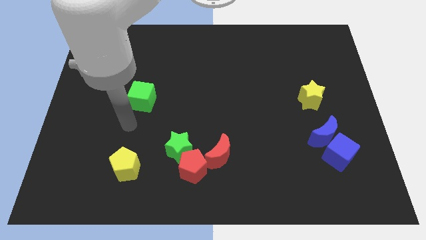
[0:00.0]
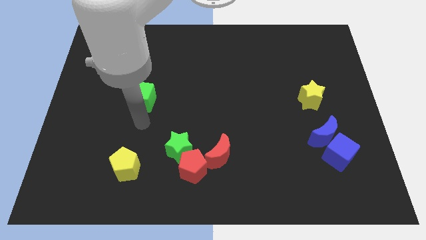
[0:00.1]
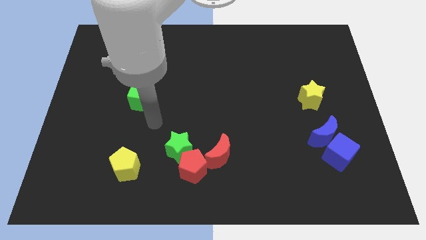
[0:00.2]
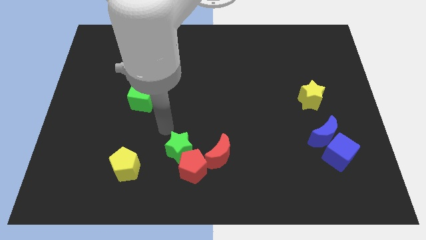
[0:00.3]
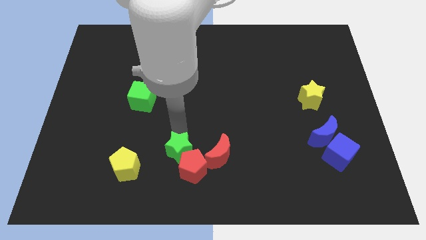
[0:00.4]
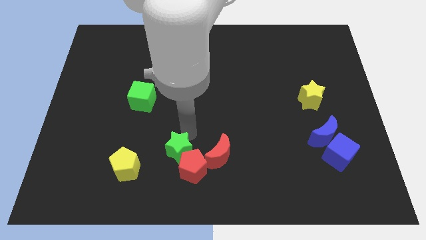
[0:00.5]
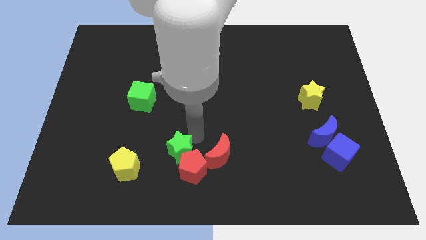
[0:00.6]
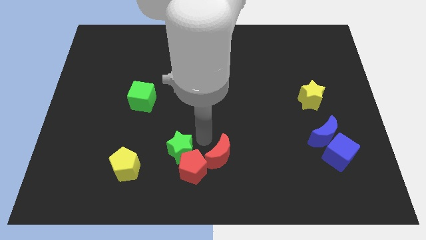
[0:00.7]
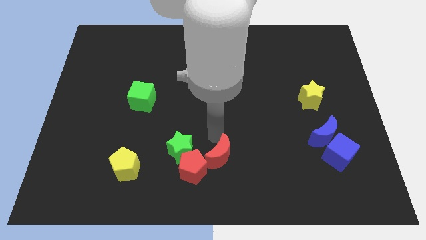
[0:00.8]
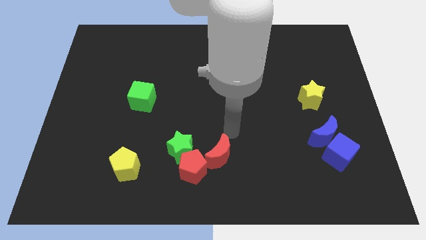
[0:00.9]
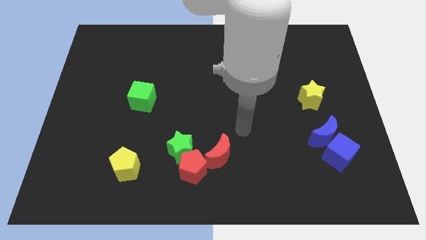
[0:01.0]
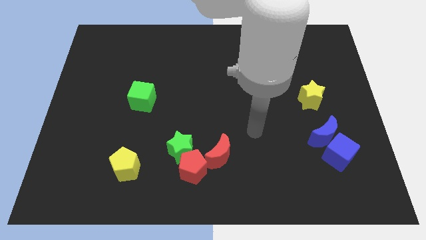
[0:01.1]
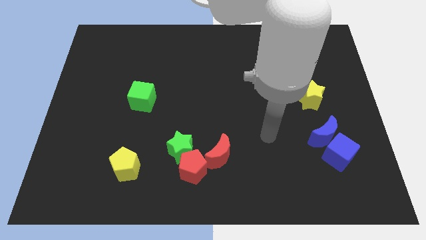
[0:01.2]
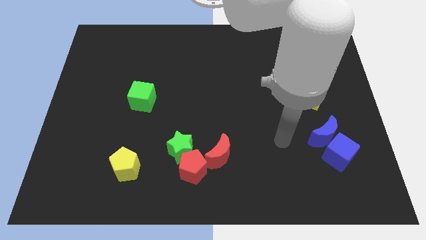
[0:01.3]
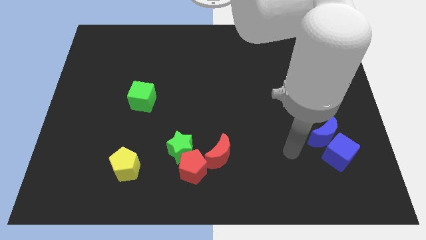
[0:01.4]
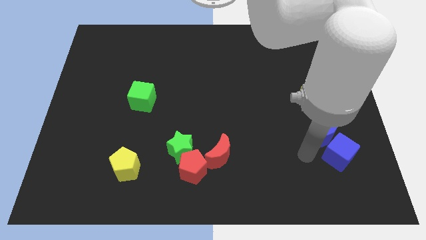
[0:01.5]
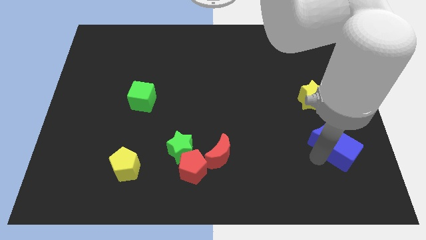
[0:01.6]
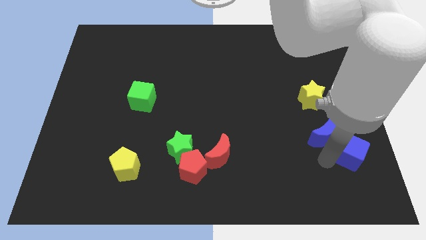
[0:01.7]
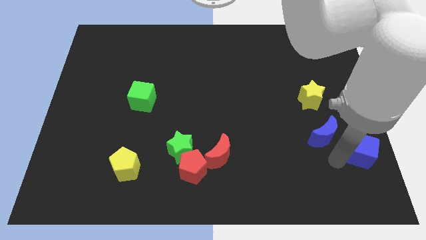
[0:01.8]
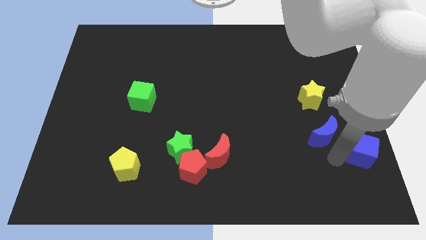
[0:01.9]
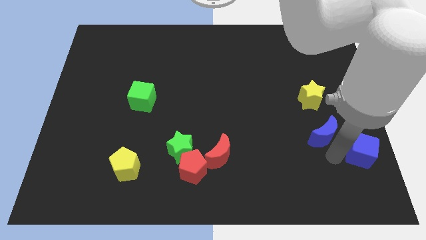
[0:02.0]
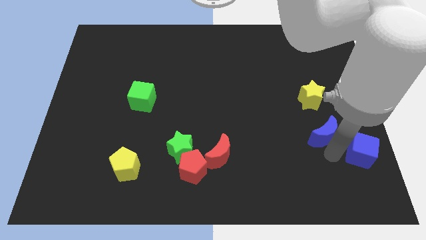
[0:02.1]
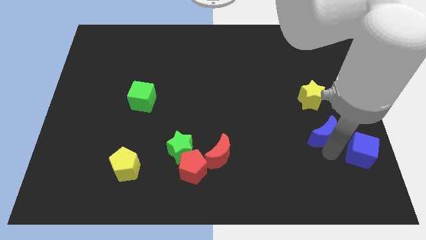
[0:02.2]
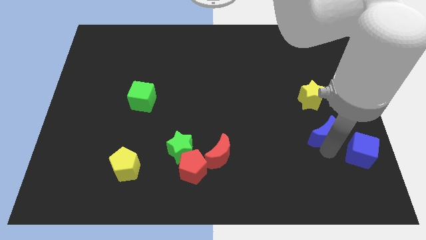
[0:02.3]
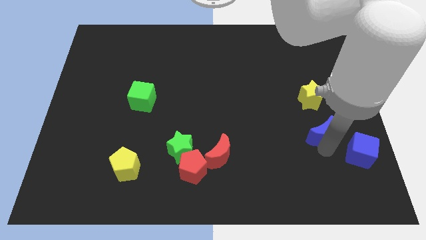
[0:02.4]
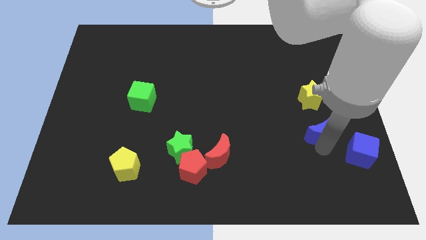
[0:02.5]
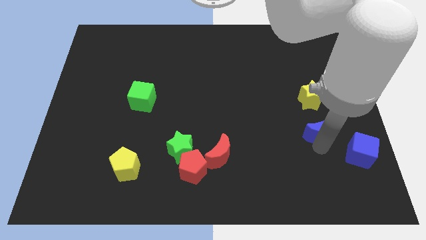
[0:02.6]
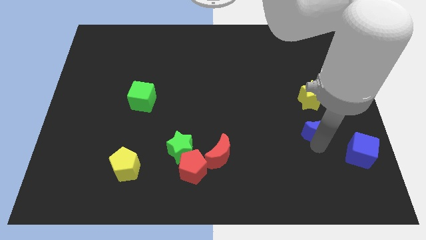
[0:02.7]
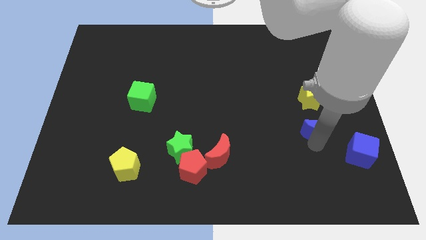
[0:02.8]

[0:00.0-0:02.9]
move the blue moon away from the blue cube

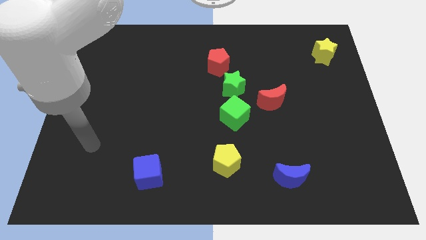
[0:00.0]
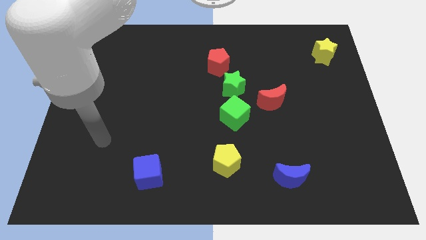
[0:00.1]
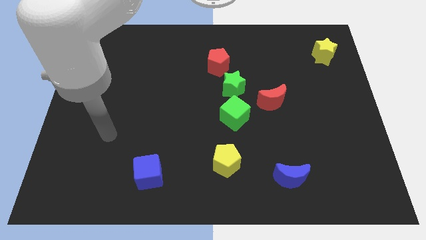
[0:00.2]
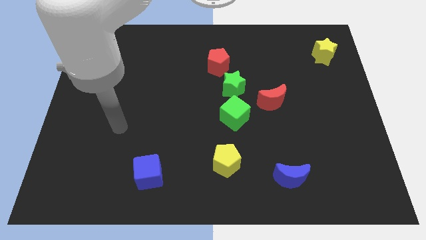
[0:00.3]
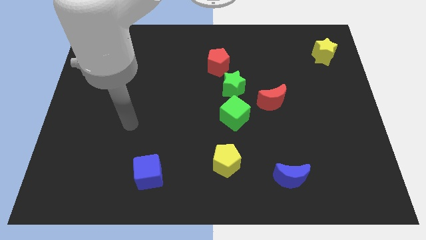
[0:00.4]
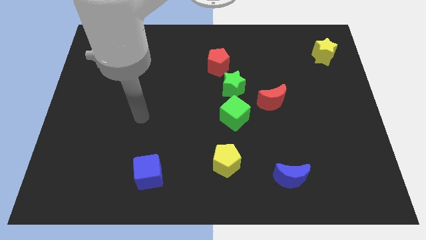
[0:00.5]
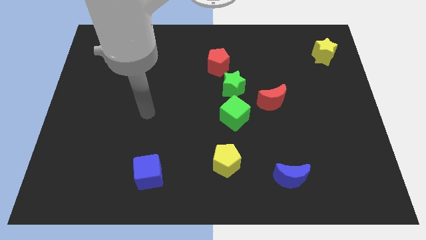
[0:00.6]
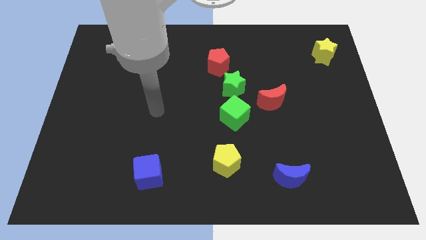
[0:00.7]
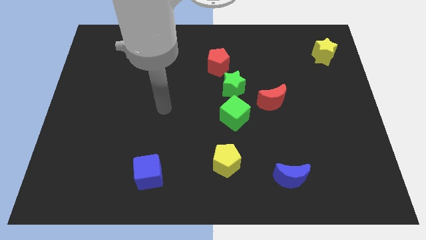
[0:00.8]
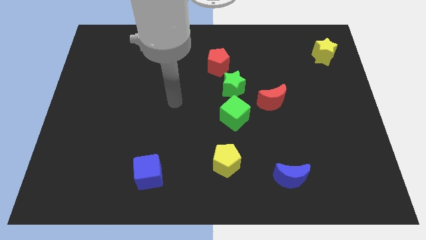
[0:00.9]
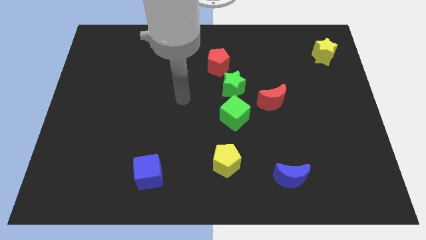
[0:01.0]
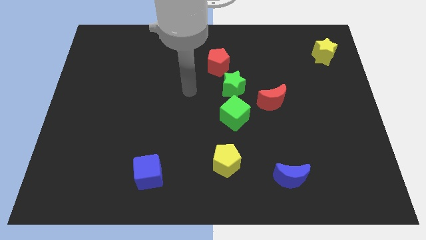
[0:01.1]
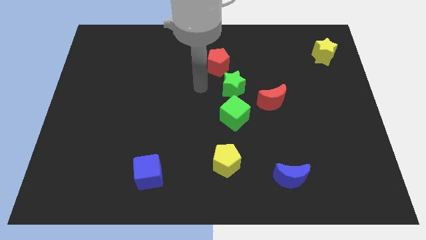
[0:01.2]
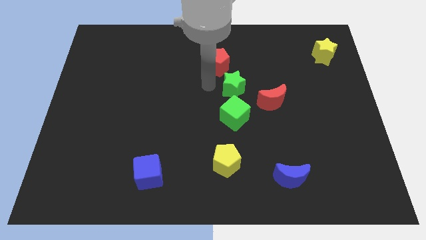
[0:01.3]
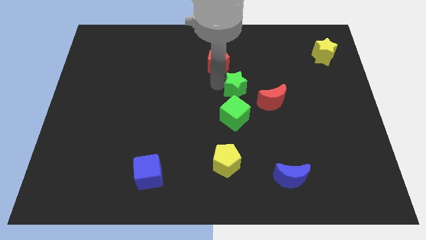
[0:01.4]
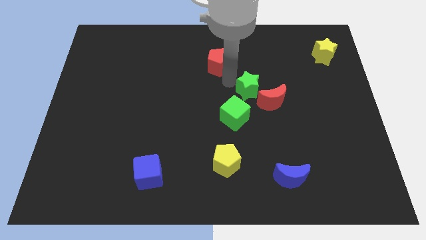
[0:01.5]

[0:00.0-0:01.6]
pull the red pentagon apart from the green star

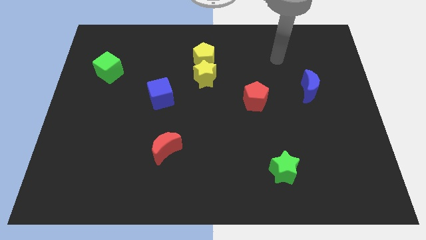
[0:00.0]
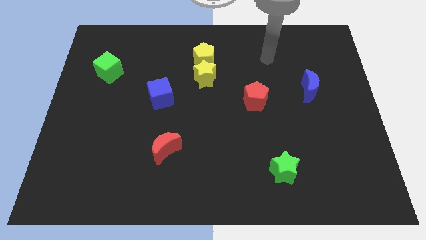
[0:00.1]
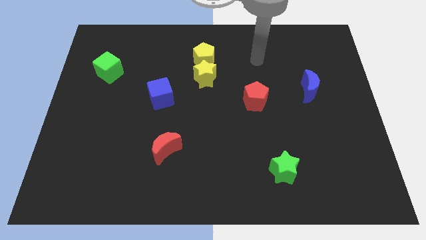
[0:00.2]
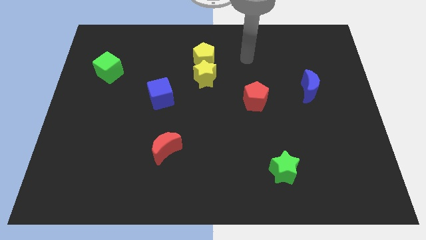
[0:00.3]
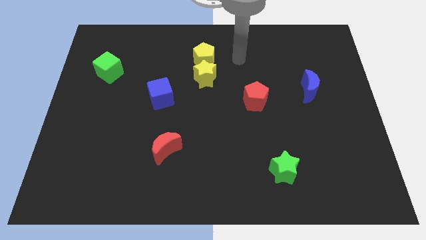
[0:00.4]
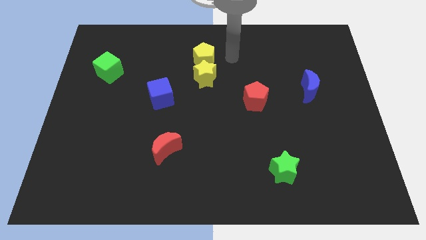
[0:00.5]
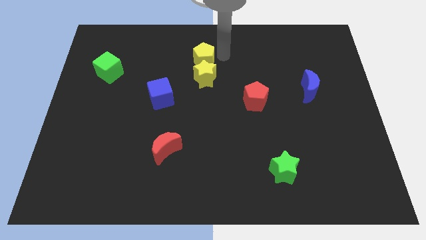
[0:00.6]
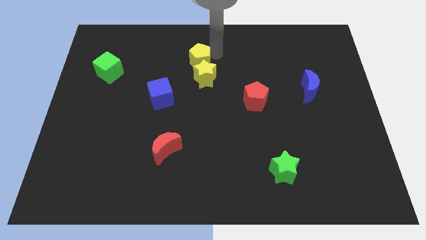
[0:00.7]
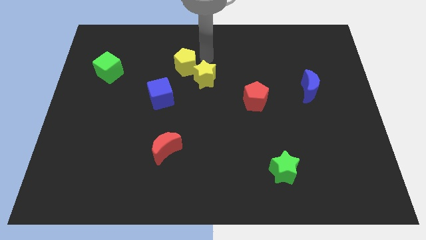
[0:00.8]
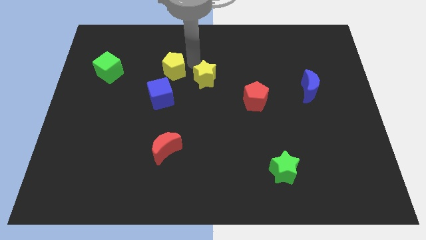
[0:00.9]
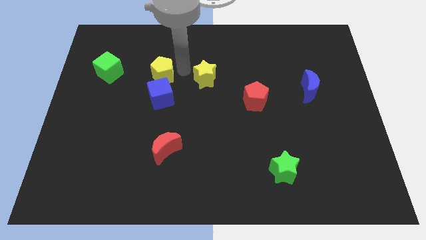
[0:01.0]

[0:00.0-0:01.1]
move the yellow star away from the yellow pentagon

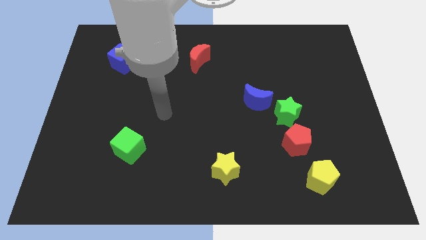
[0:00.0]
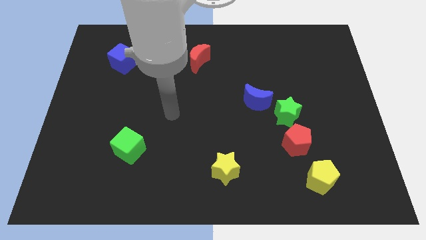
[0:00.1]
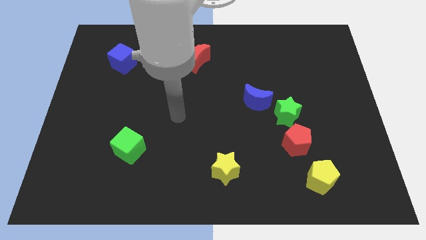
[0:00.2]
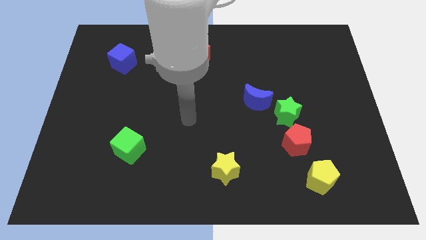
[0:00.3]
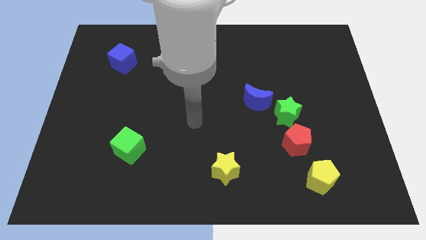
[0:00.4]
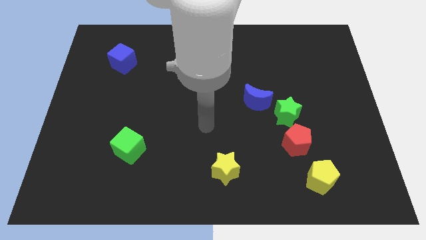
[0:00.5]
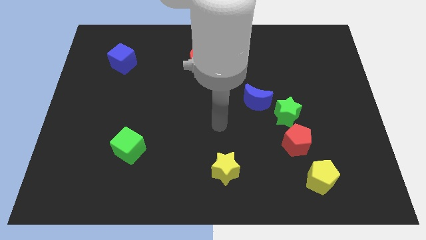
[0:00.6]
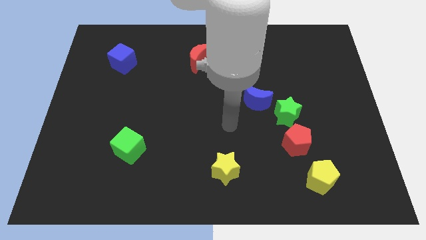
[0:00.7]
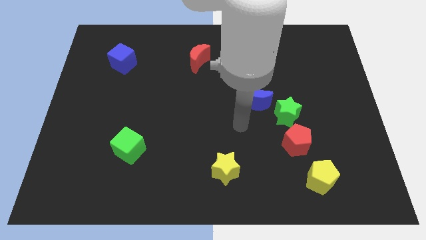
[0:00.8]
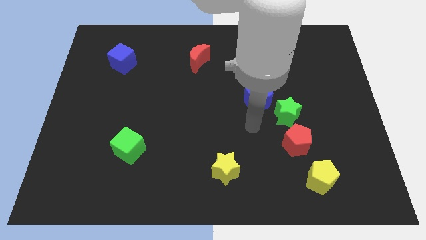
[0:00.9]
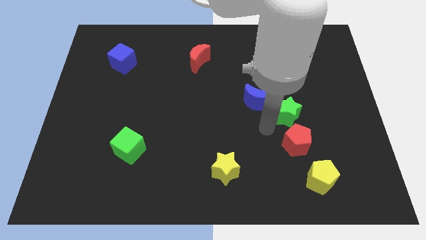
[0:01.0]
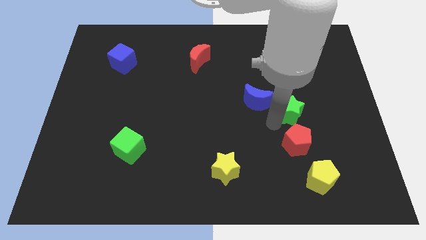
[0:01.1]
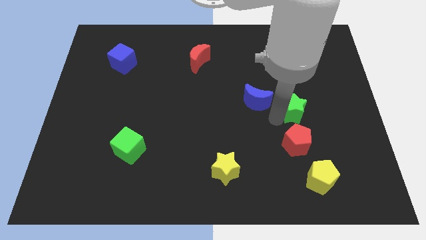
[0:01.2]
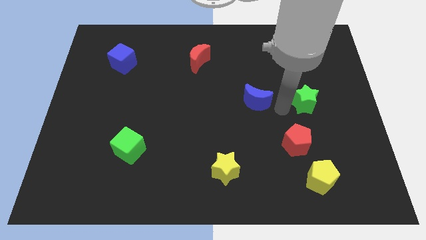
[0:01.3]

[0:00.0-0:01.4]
separate the blue moon from the green star

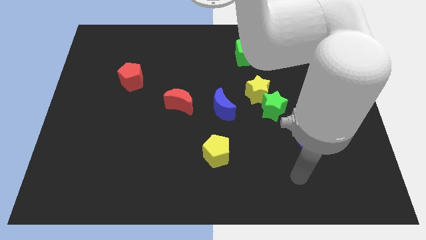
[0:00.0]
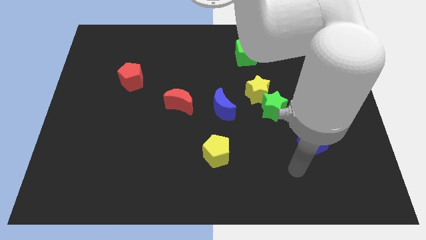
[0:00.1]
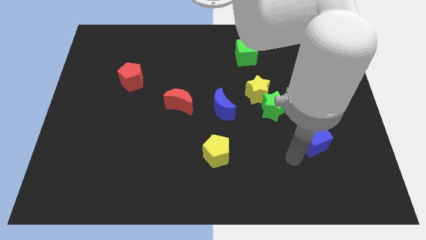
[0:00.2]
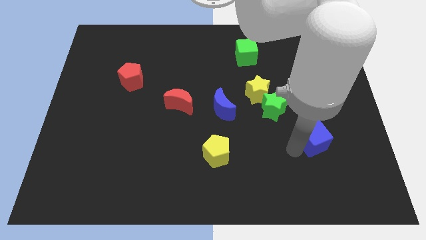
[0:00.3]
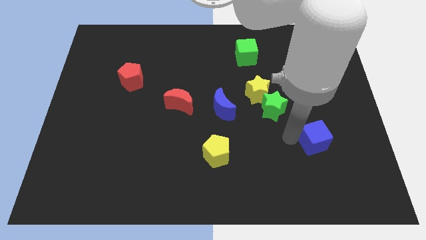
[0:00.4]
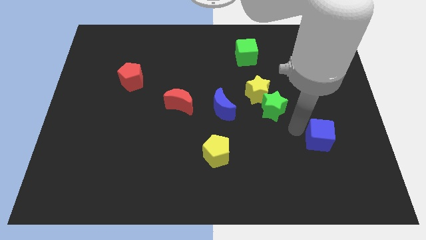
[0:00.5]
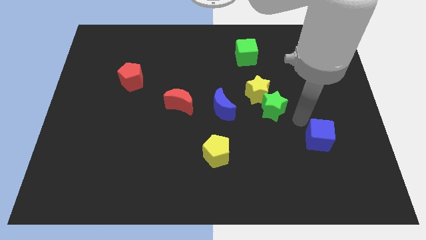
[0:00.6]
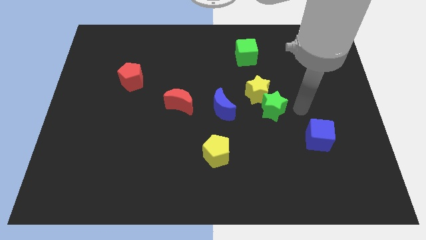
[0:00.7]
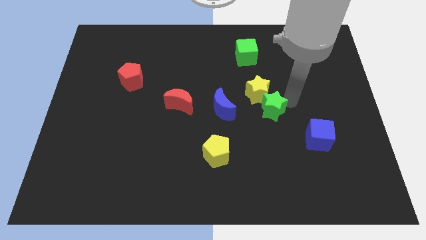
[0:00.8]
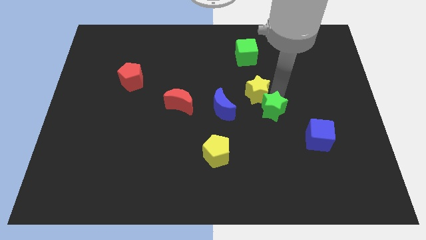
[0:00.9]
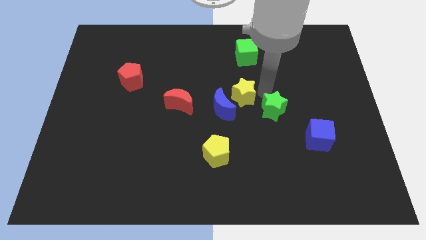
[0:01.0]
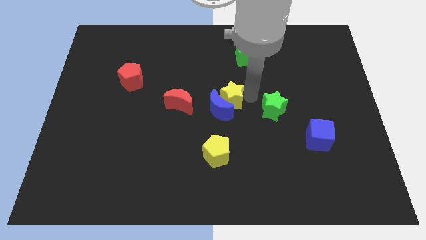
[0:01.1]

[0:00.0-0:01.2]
separate the green star from the yellow star

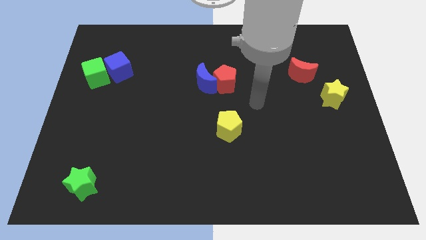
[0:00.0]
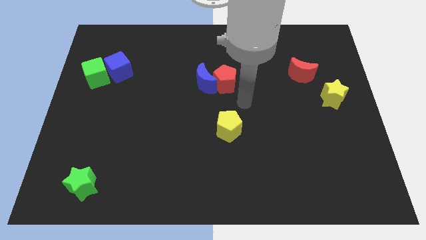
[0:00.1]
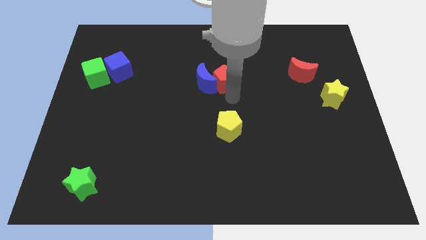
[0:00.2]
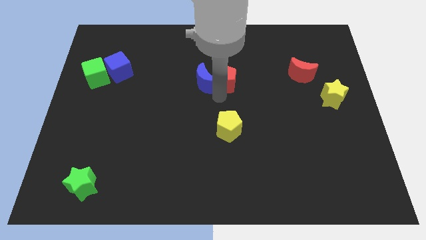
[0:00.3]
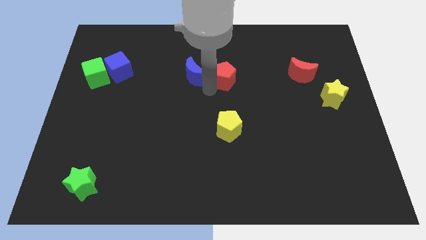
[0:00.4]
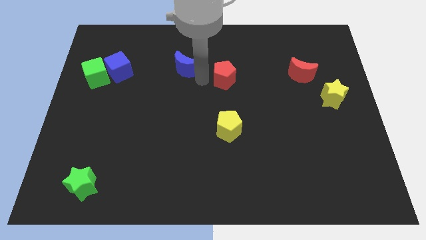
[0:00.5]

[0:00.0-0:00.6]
separate the red pentagon from the blue moon

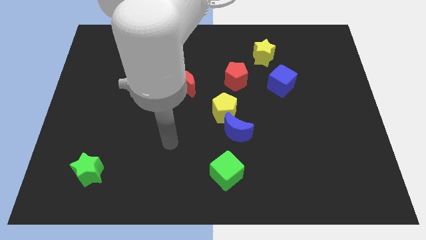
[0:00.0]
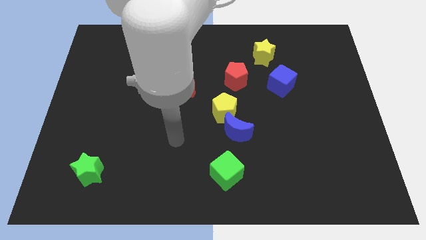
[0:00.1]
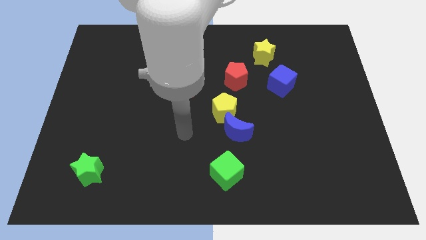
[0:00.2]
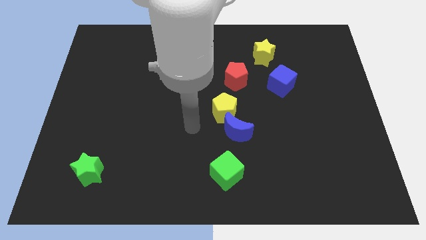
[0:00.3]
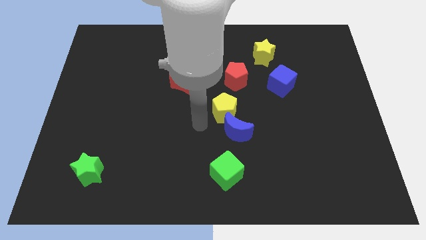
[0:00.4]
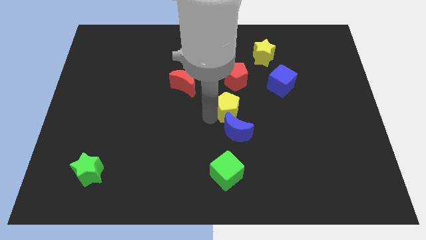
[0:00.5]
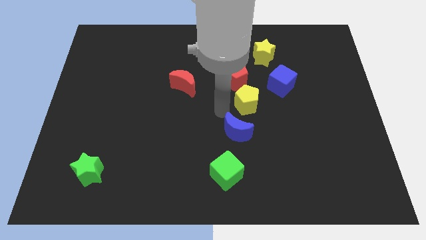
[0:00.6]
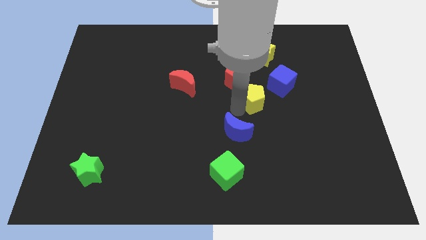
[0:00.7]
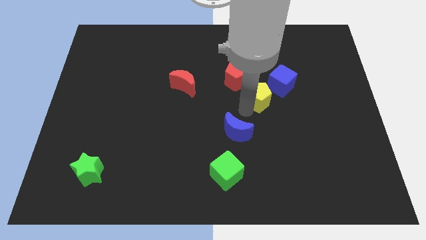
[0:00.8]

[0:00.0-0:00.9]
pull the blue moon apart from the yellow pentagon
